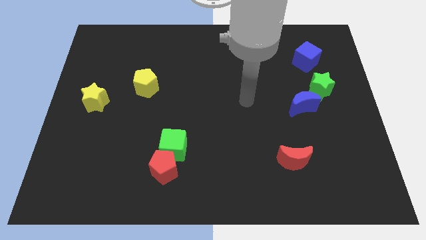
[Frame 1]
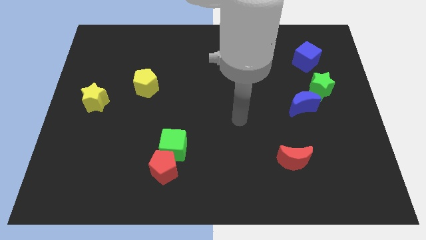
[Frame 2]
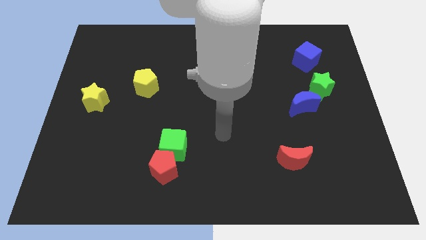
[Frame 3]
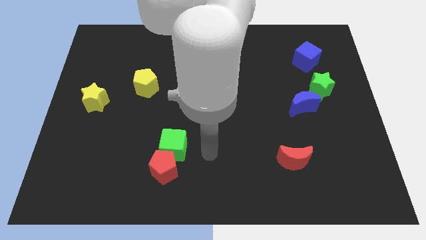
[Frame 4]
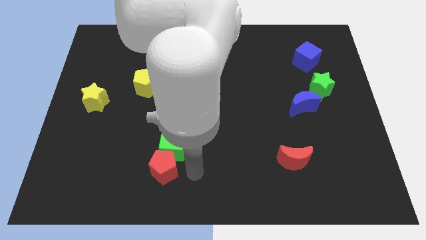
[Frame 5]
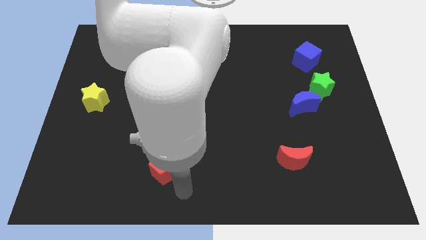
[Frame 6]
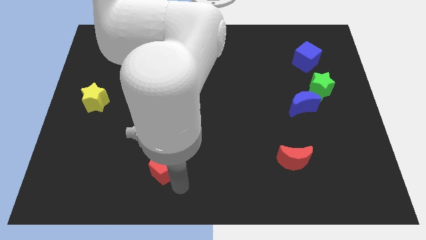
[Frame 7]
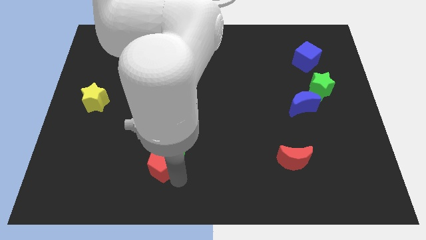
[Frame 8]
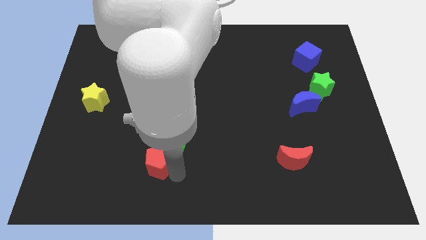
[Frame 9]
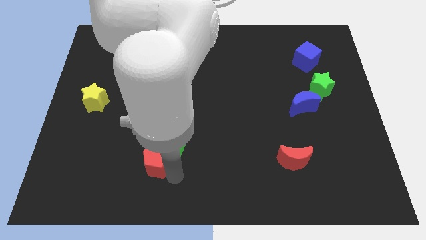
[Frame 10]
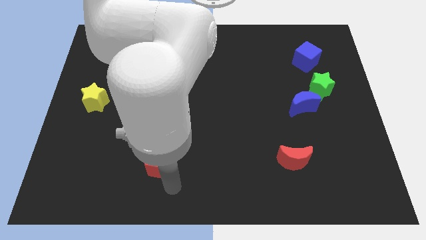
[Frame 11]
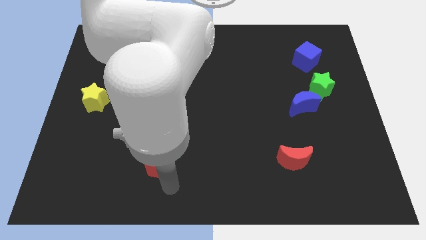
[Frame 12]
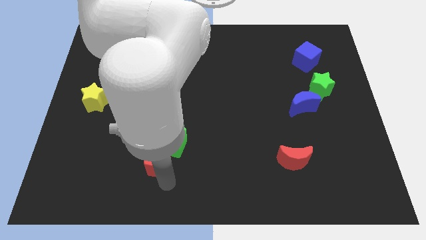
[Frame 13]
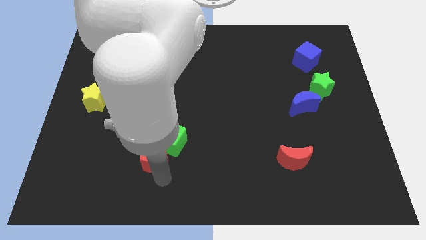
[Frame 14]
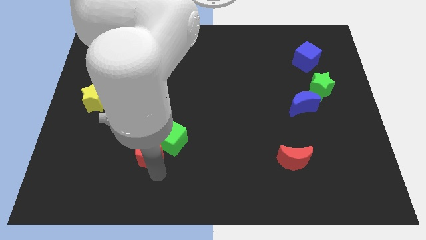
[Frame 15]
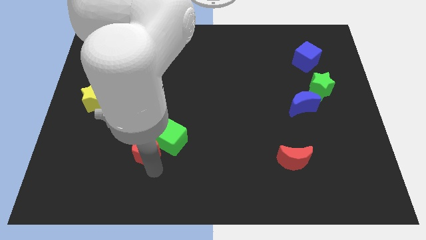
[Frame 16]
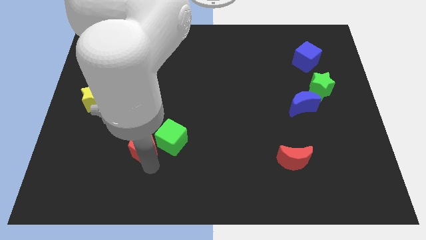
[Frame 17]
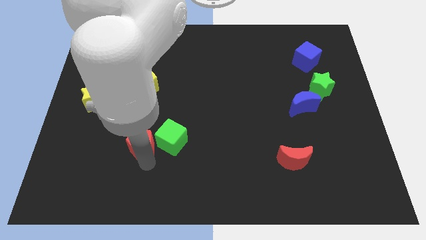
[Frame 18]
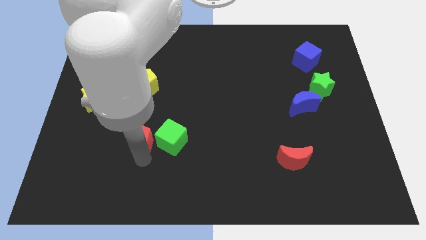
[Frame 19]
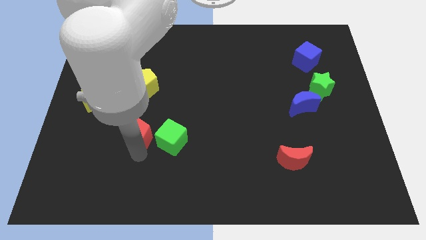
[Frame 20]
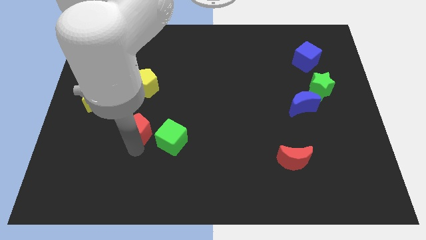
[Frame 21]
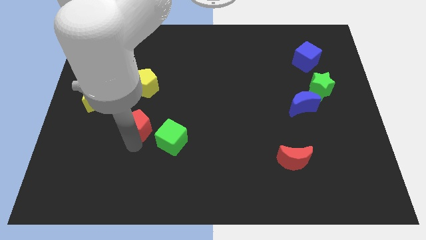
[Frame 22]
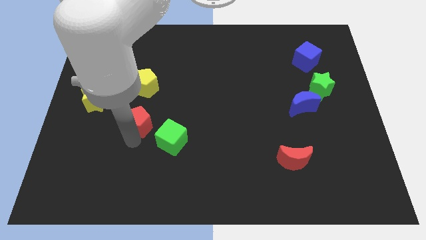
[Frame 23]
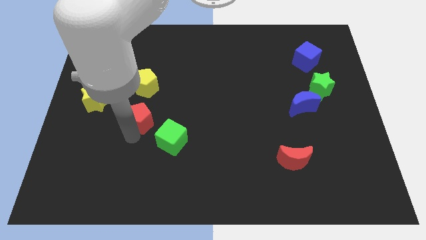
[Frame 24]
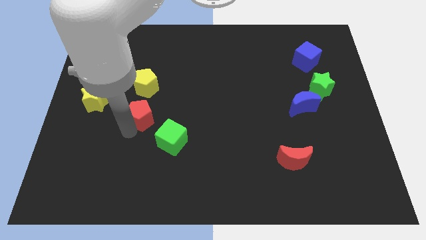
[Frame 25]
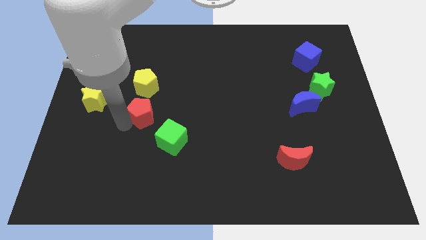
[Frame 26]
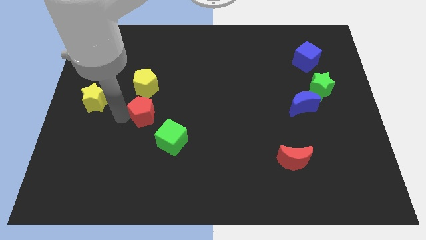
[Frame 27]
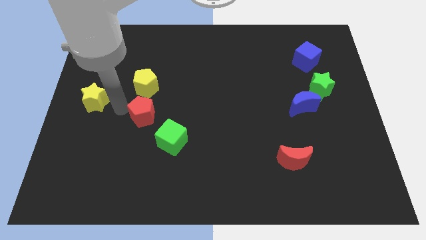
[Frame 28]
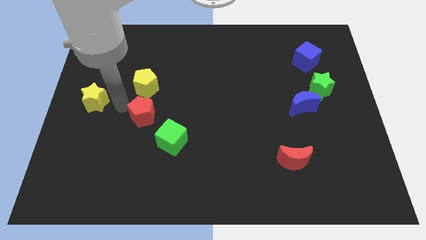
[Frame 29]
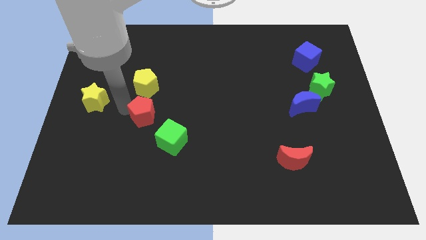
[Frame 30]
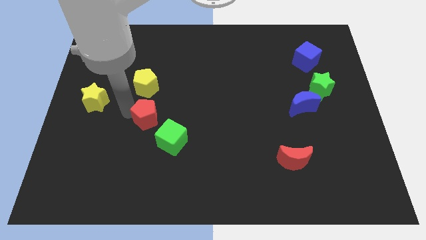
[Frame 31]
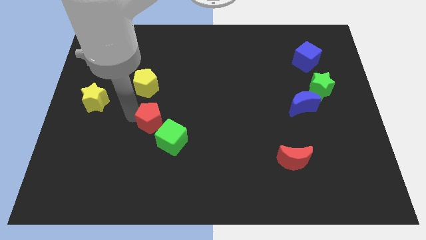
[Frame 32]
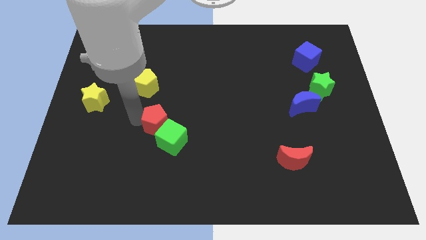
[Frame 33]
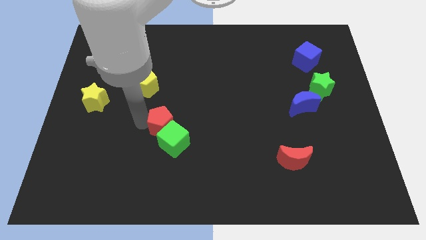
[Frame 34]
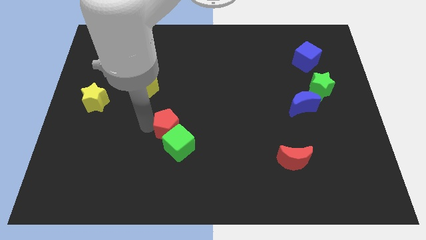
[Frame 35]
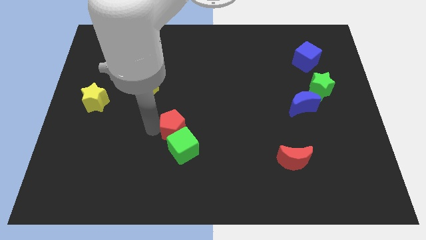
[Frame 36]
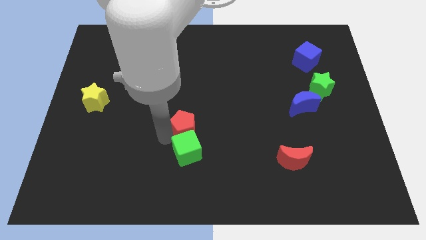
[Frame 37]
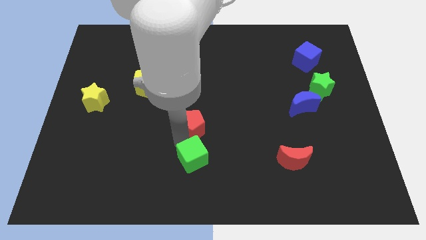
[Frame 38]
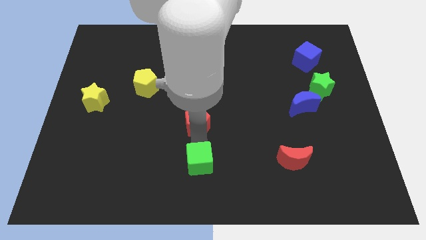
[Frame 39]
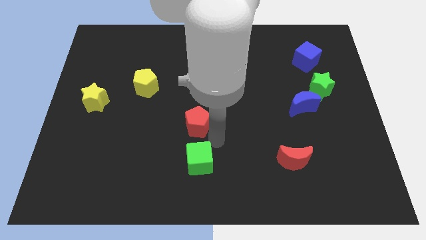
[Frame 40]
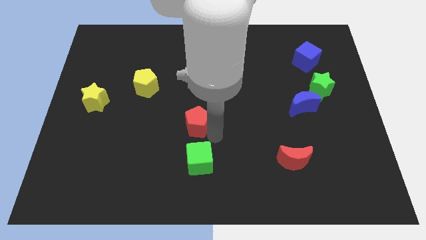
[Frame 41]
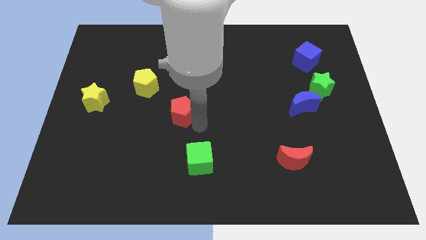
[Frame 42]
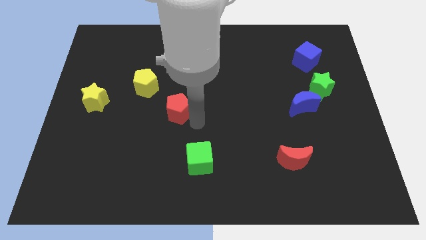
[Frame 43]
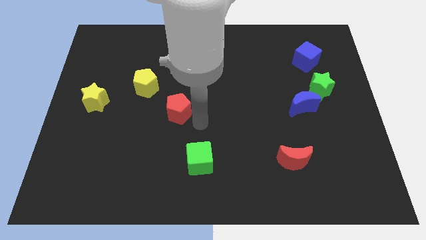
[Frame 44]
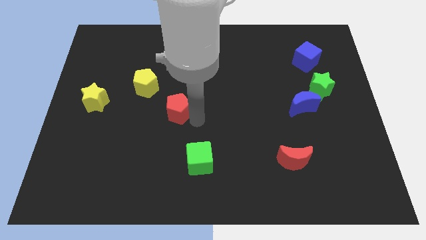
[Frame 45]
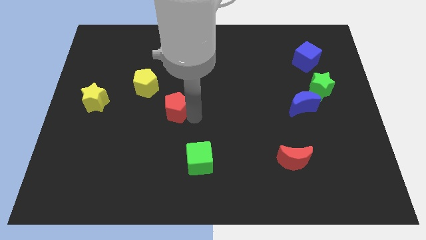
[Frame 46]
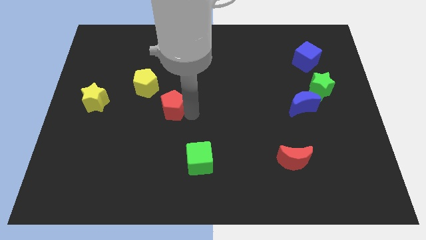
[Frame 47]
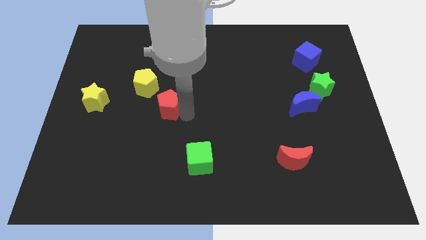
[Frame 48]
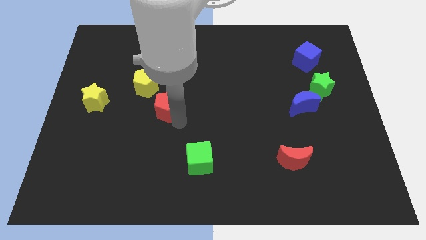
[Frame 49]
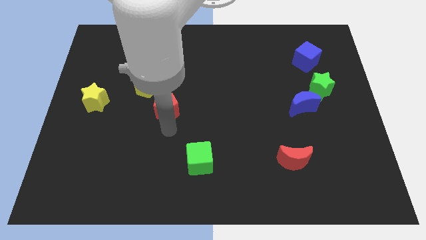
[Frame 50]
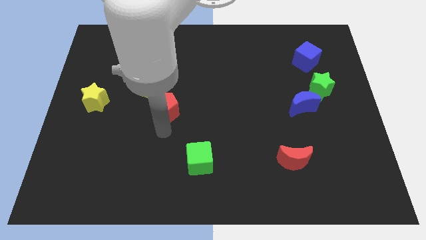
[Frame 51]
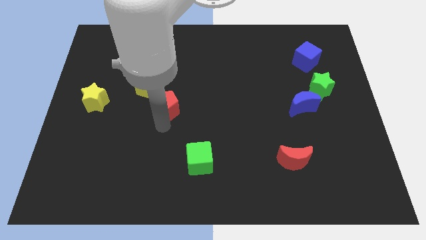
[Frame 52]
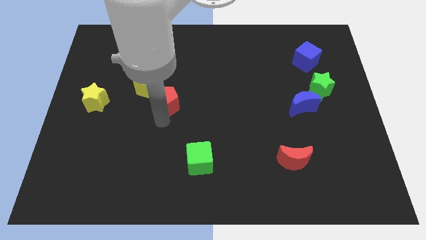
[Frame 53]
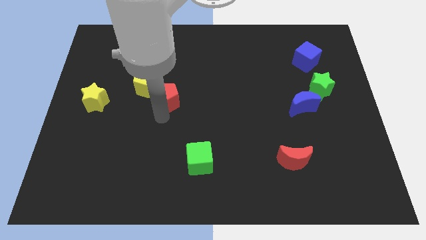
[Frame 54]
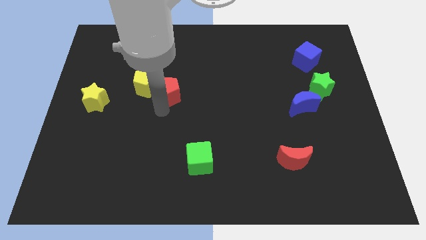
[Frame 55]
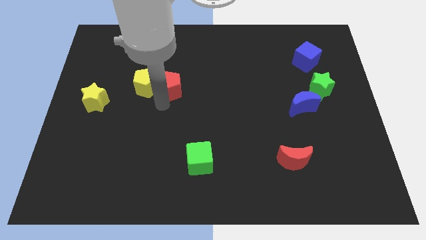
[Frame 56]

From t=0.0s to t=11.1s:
slide the red pentagon to the top right of the yellow pentagon

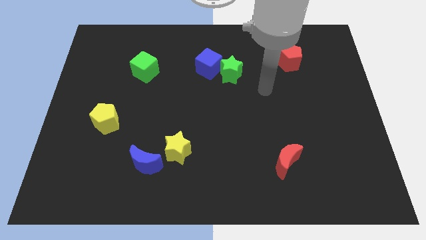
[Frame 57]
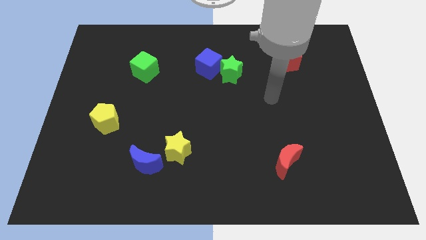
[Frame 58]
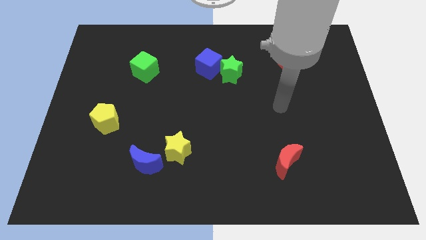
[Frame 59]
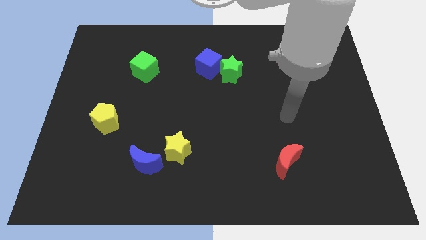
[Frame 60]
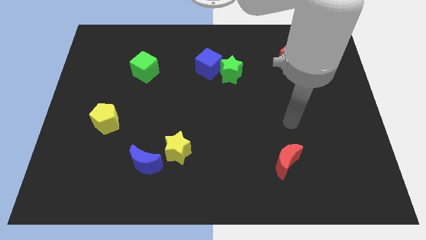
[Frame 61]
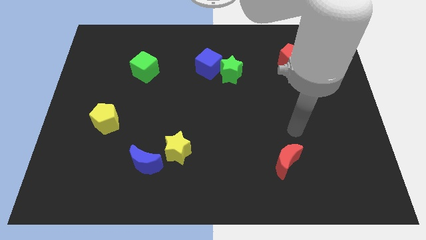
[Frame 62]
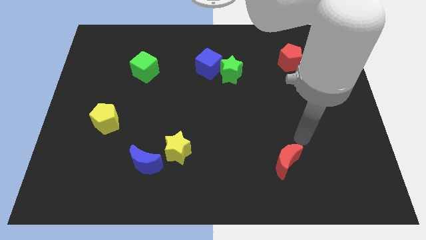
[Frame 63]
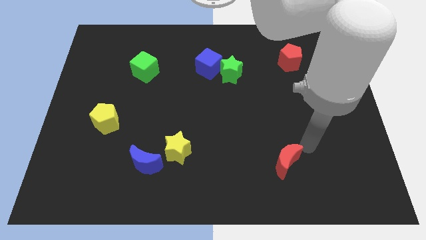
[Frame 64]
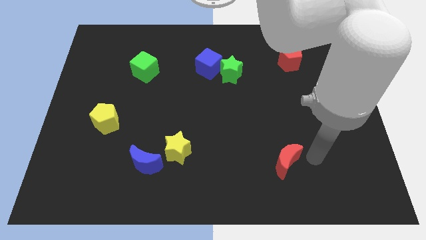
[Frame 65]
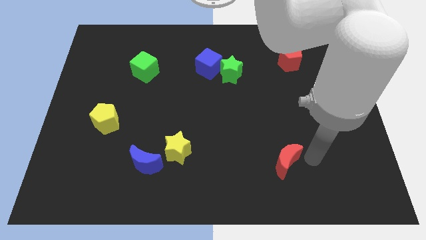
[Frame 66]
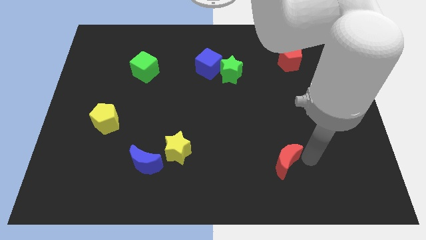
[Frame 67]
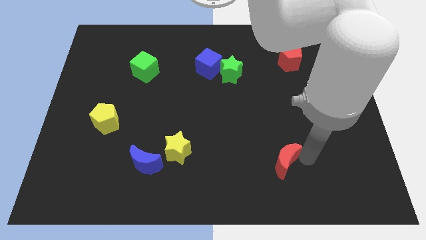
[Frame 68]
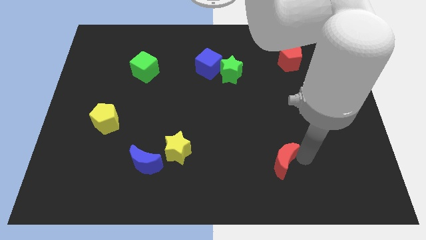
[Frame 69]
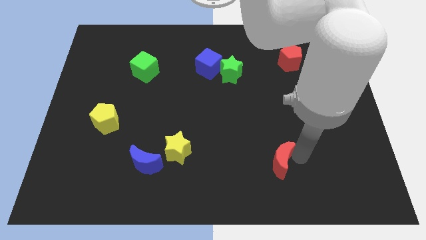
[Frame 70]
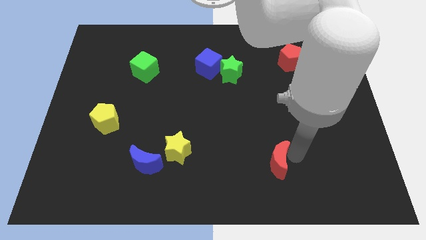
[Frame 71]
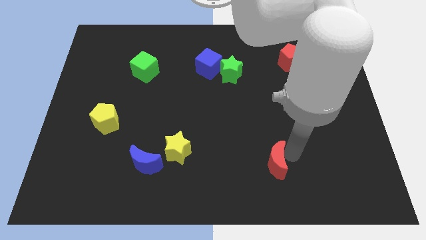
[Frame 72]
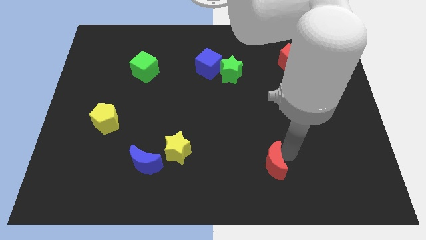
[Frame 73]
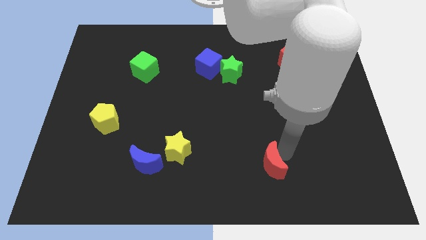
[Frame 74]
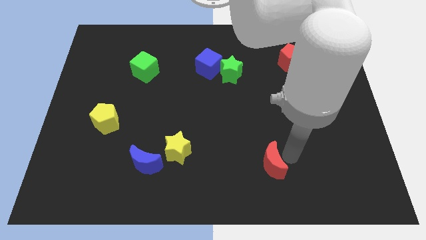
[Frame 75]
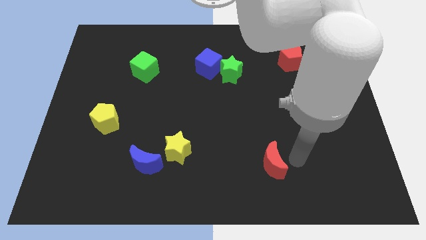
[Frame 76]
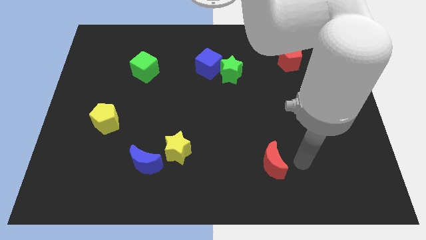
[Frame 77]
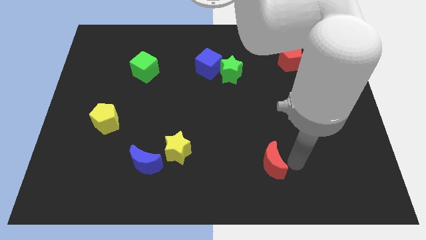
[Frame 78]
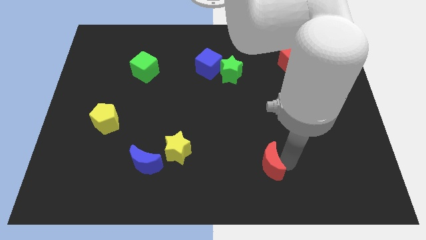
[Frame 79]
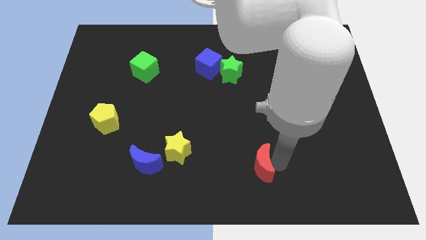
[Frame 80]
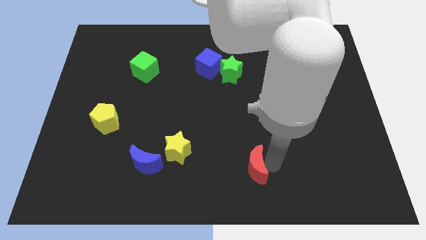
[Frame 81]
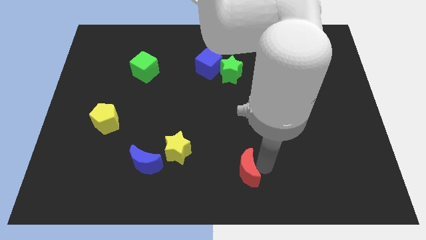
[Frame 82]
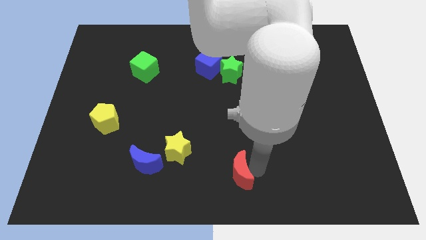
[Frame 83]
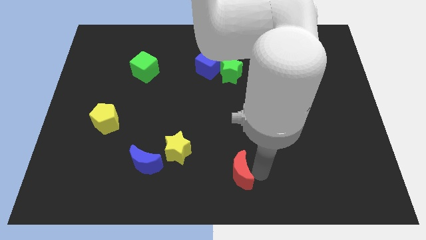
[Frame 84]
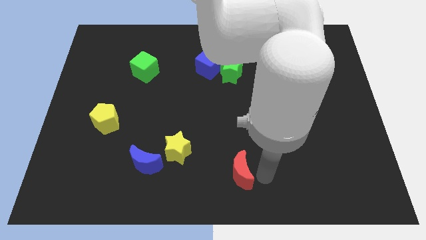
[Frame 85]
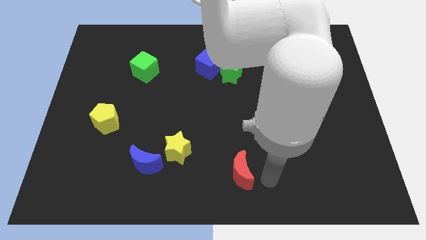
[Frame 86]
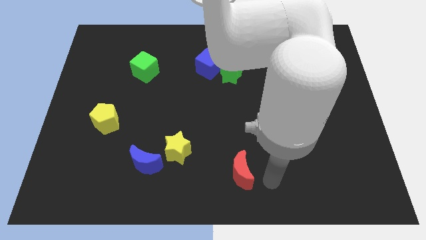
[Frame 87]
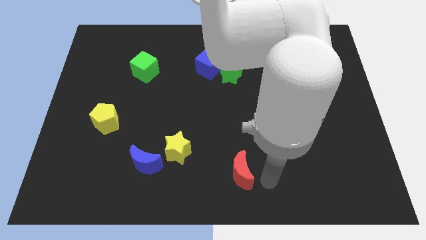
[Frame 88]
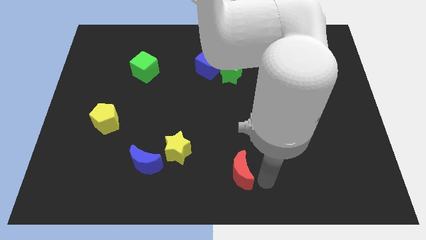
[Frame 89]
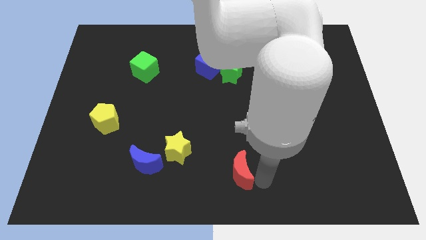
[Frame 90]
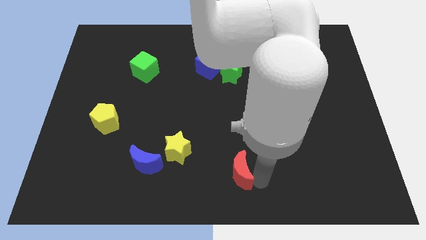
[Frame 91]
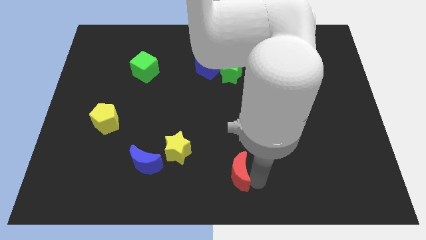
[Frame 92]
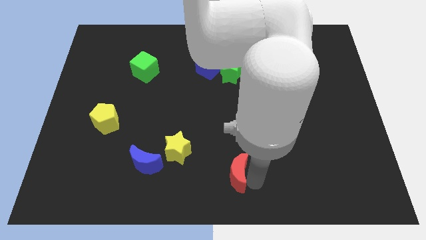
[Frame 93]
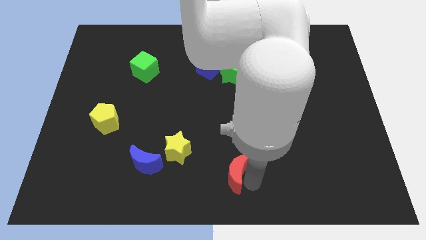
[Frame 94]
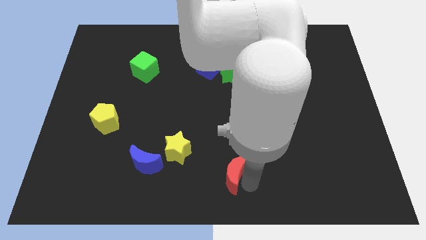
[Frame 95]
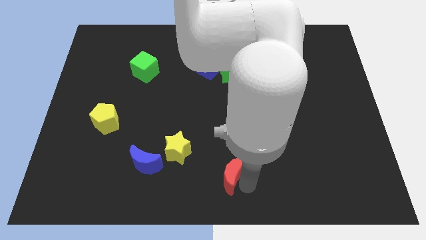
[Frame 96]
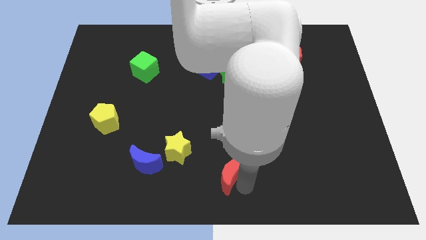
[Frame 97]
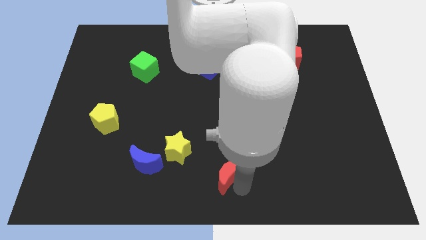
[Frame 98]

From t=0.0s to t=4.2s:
move the red moon to the bottom right side of the yellow star
